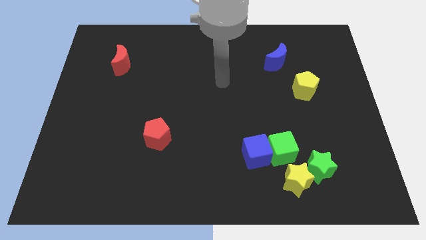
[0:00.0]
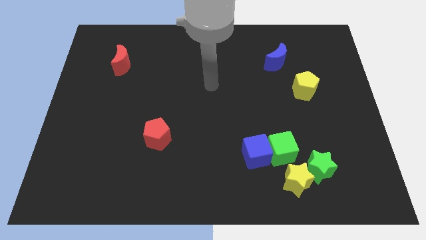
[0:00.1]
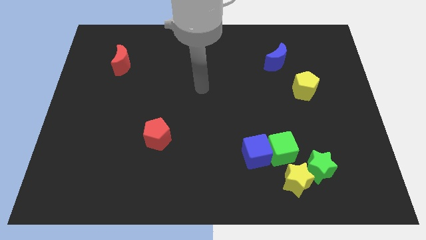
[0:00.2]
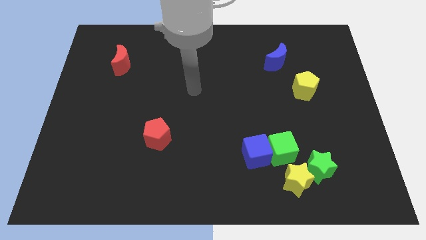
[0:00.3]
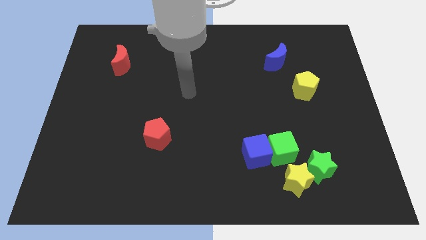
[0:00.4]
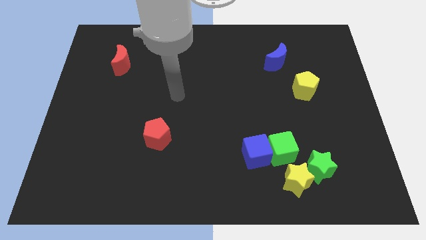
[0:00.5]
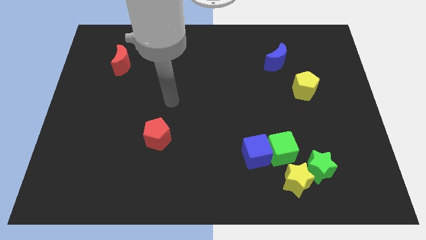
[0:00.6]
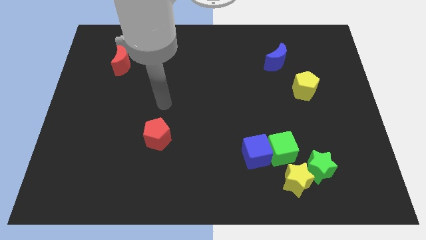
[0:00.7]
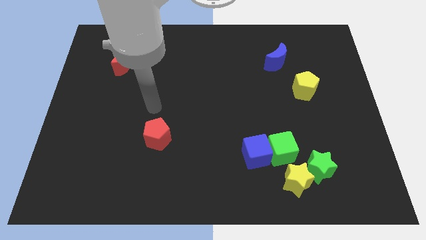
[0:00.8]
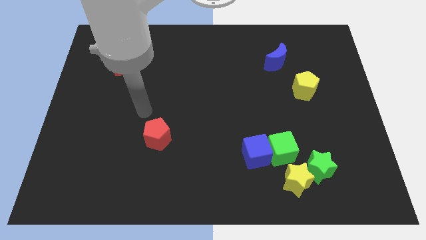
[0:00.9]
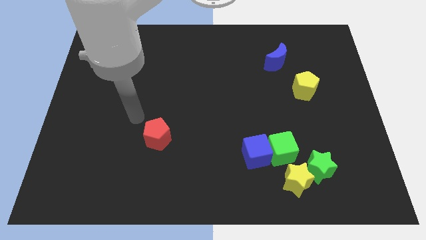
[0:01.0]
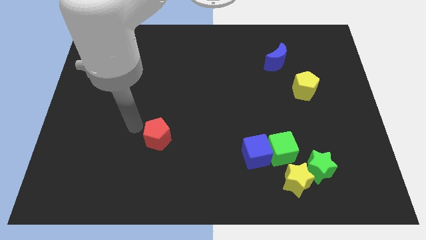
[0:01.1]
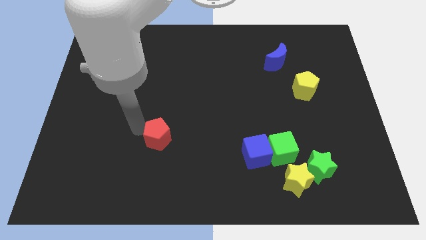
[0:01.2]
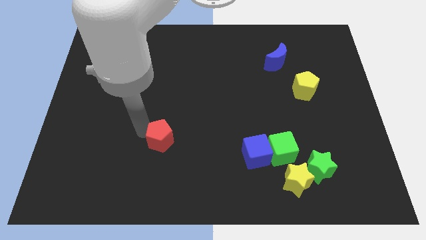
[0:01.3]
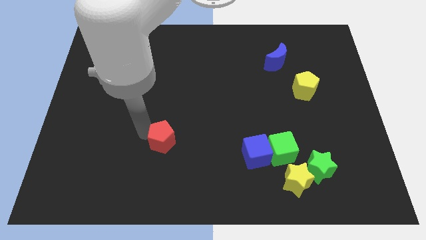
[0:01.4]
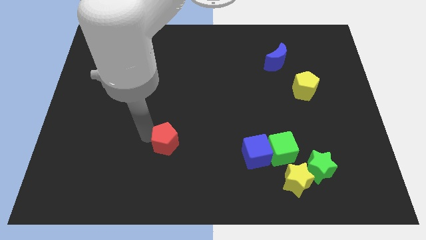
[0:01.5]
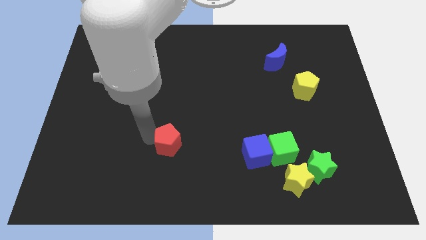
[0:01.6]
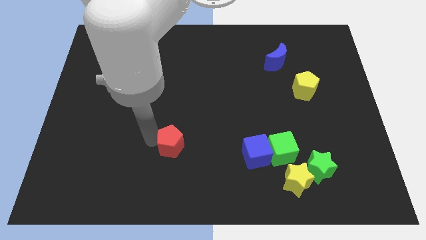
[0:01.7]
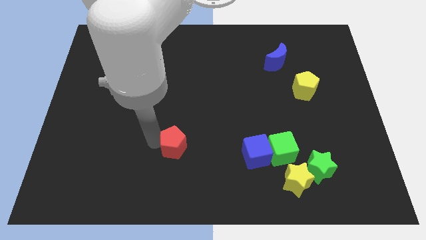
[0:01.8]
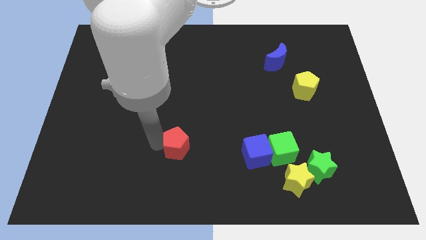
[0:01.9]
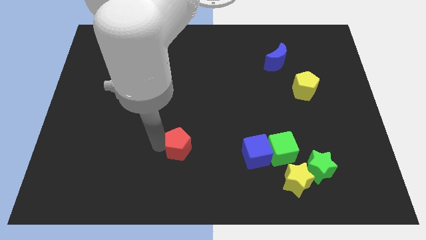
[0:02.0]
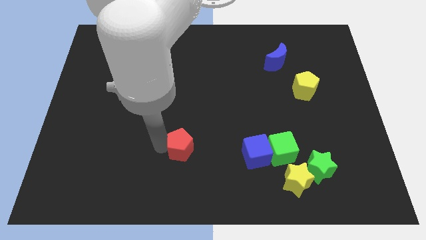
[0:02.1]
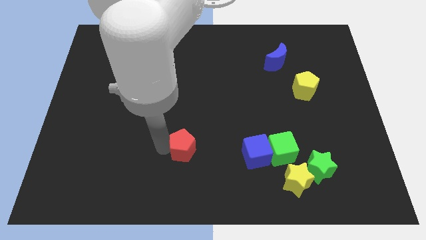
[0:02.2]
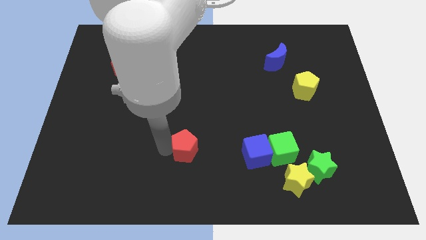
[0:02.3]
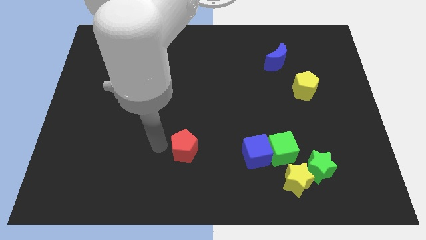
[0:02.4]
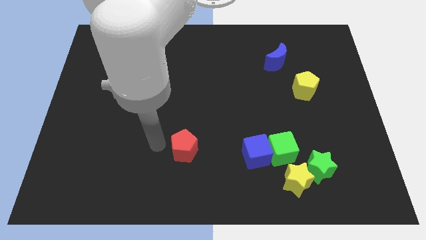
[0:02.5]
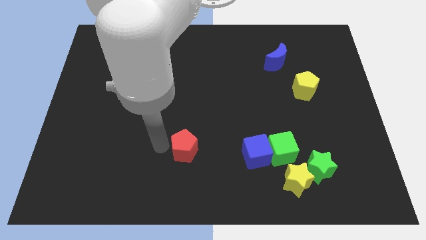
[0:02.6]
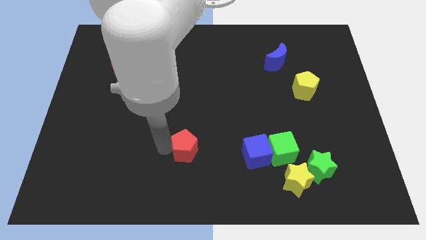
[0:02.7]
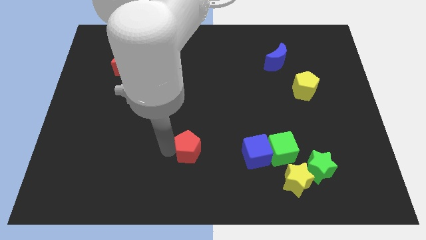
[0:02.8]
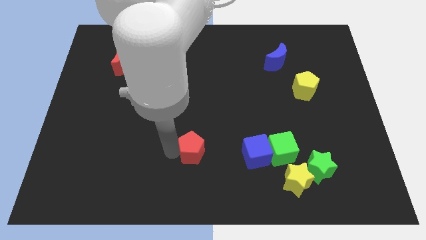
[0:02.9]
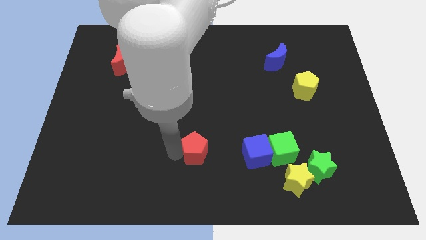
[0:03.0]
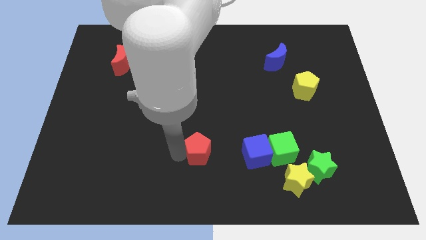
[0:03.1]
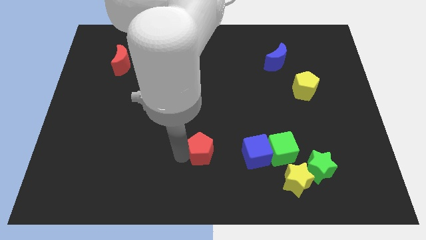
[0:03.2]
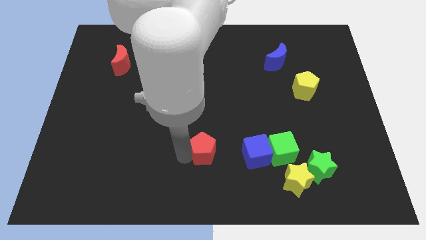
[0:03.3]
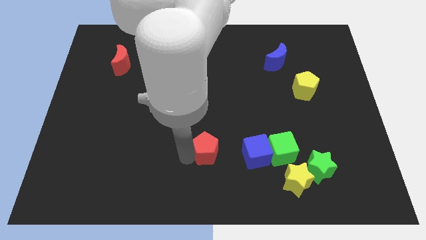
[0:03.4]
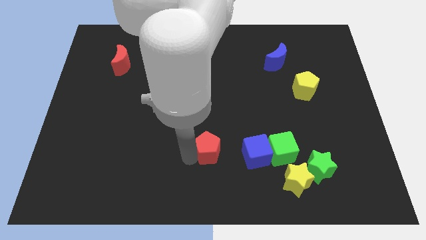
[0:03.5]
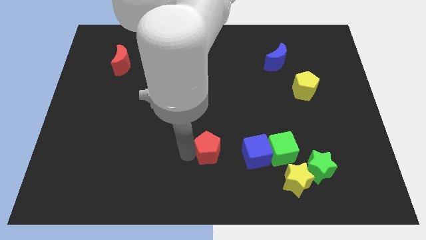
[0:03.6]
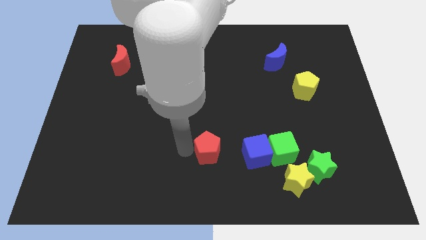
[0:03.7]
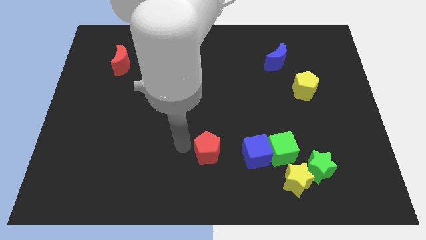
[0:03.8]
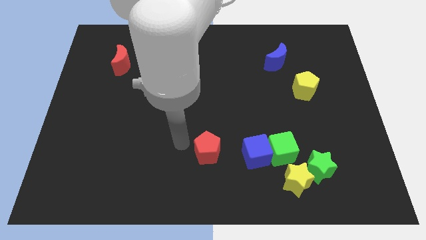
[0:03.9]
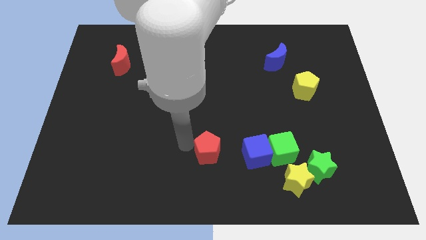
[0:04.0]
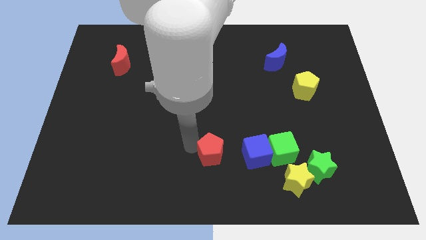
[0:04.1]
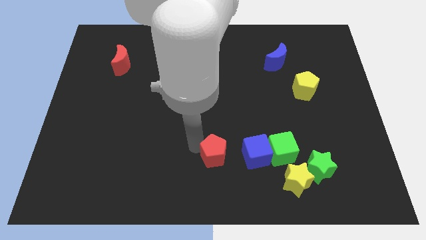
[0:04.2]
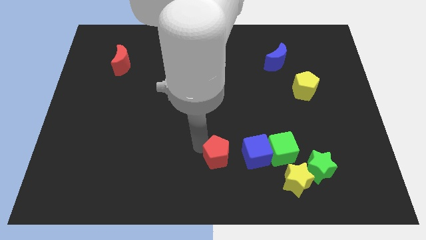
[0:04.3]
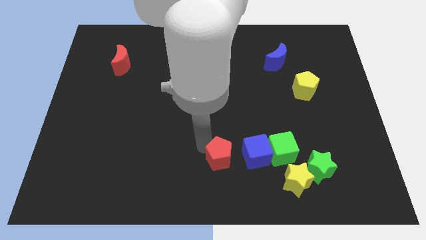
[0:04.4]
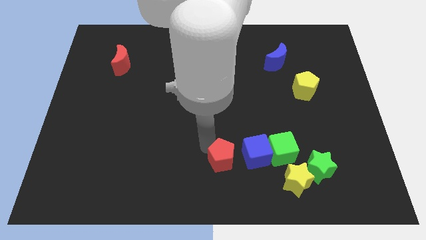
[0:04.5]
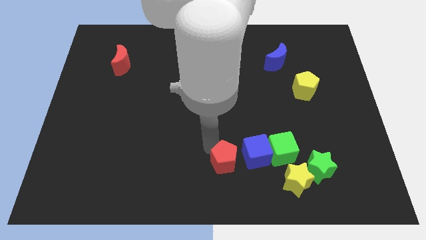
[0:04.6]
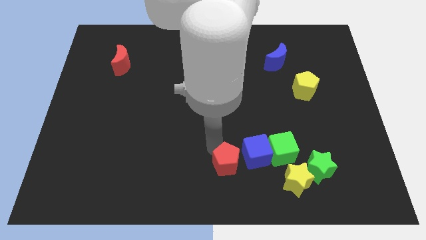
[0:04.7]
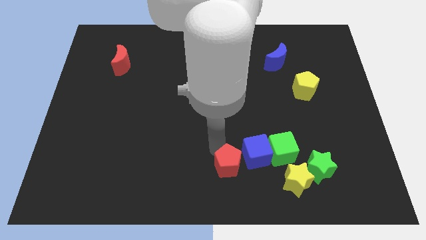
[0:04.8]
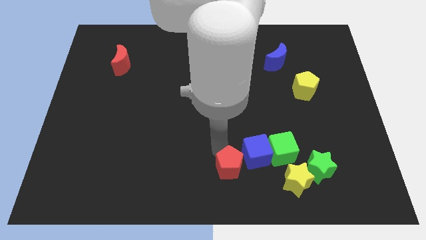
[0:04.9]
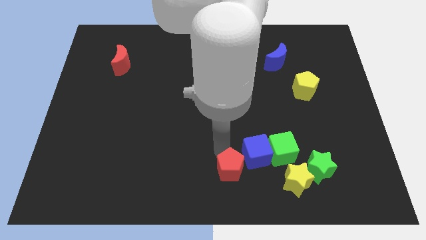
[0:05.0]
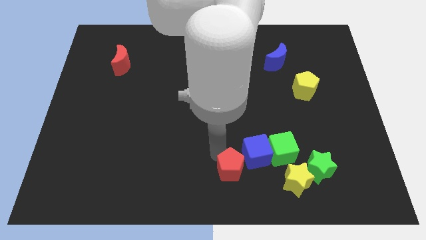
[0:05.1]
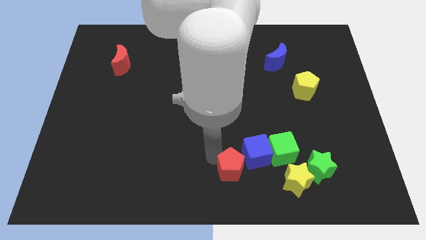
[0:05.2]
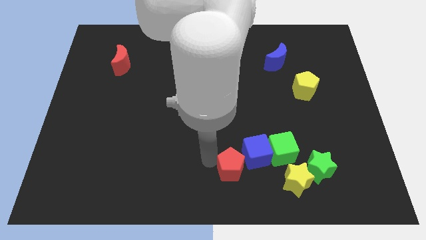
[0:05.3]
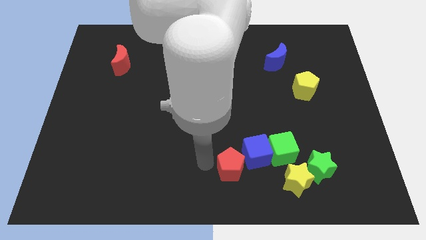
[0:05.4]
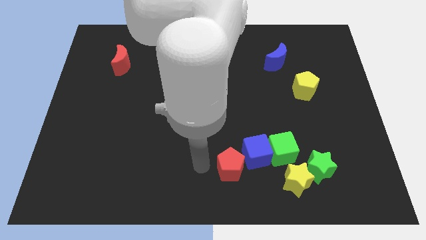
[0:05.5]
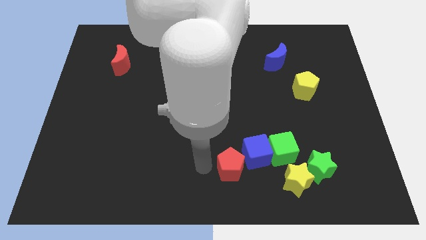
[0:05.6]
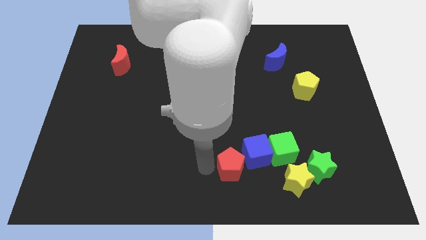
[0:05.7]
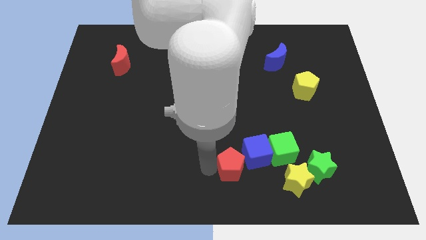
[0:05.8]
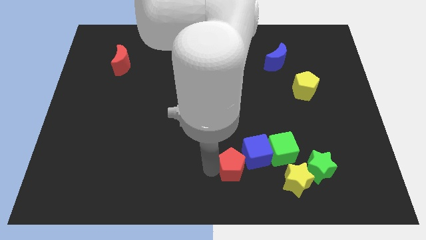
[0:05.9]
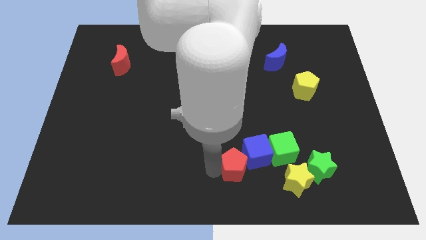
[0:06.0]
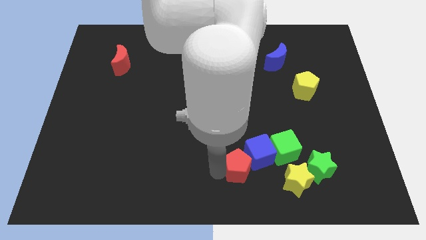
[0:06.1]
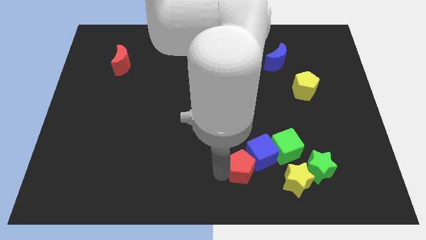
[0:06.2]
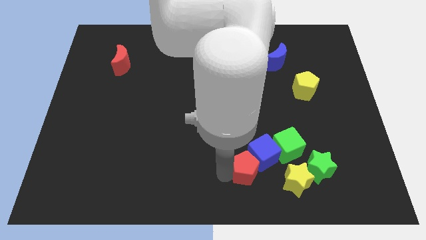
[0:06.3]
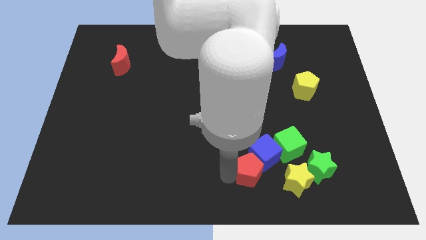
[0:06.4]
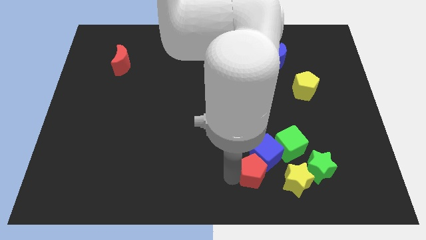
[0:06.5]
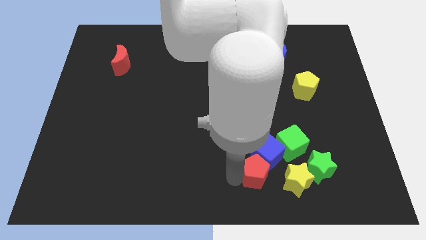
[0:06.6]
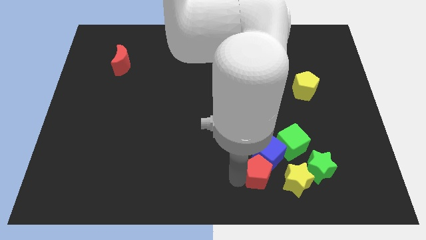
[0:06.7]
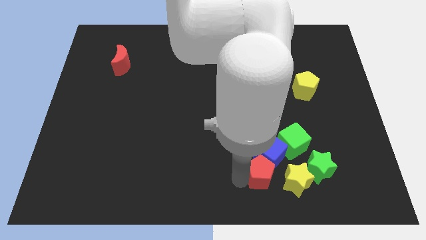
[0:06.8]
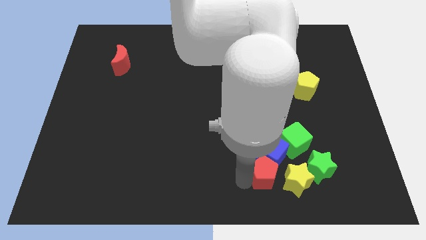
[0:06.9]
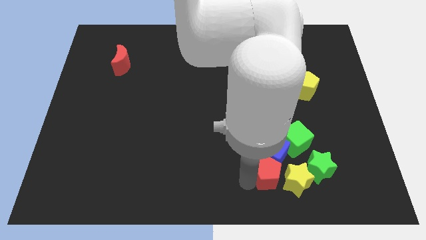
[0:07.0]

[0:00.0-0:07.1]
push the red pentagon next to the yellow star

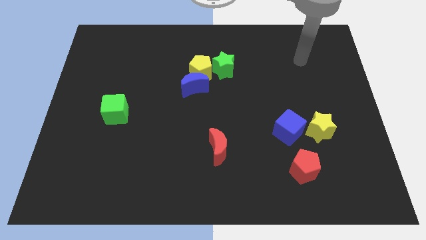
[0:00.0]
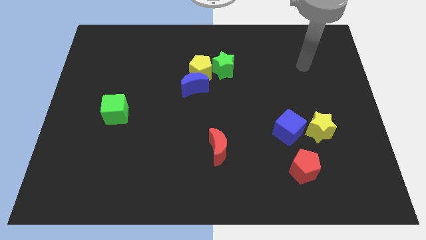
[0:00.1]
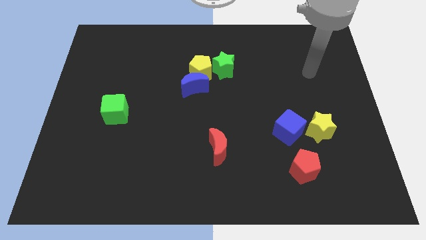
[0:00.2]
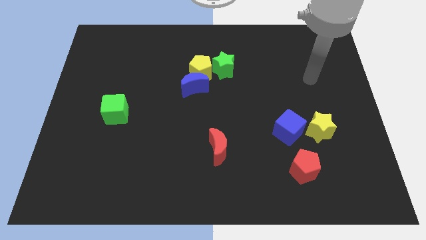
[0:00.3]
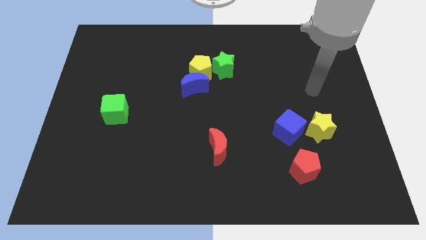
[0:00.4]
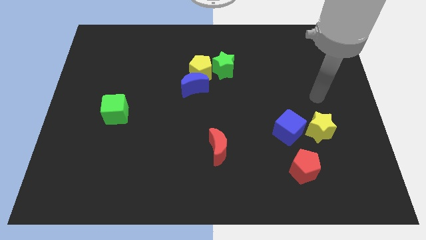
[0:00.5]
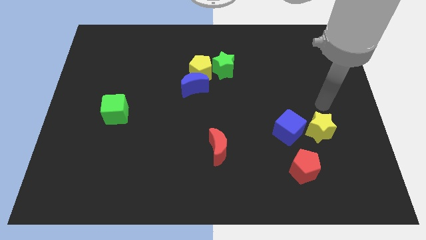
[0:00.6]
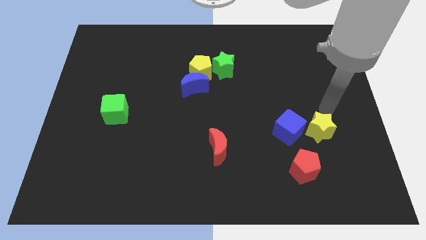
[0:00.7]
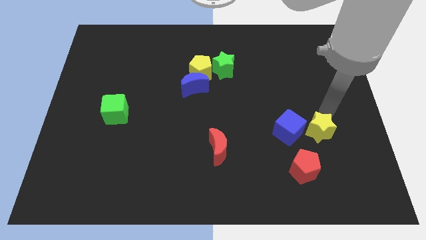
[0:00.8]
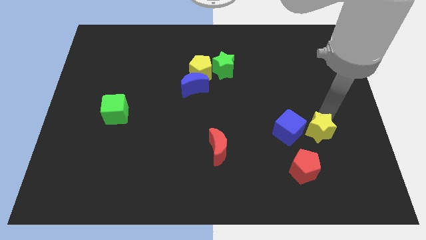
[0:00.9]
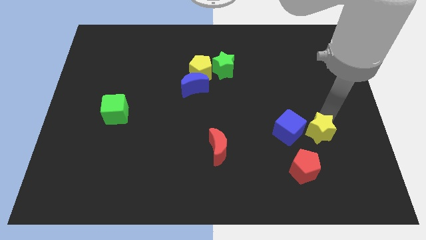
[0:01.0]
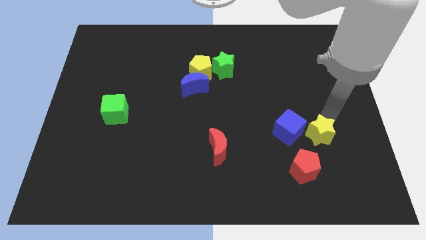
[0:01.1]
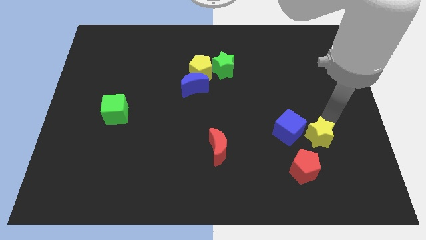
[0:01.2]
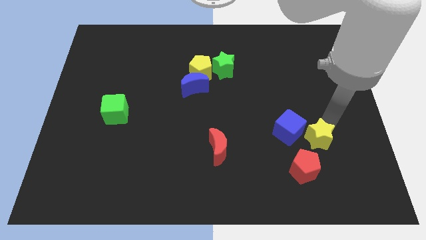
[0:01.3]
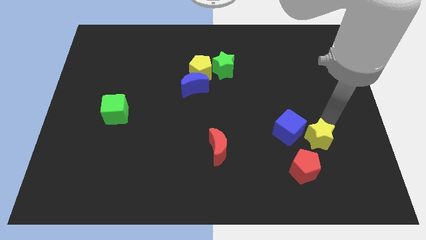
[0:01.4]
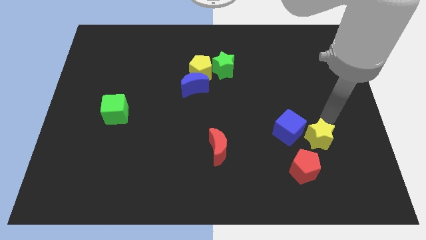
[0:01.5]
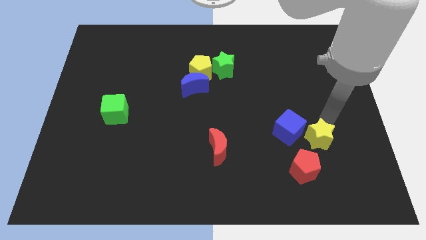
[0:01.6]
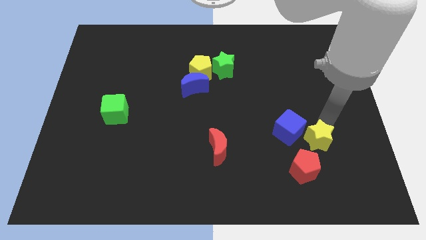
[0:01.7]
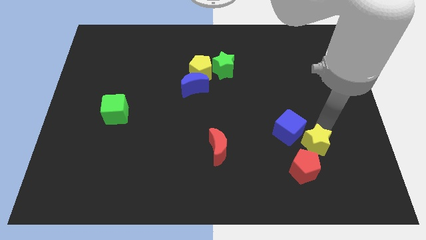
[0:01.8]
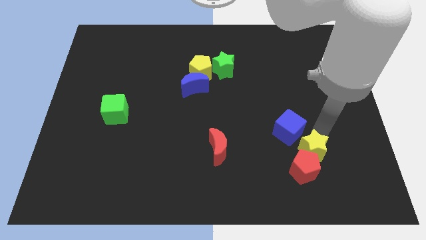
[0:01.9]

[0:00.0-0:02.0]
slide the yellow star to the red pentagon
